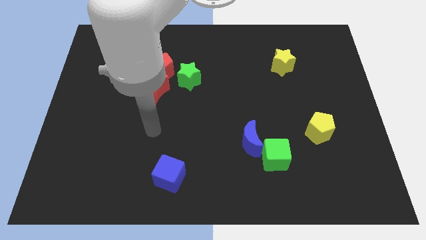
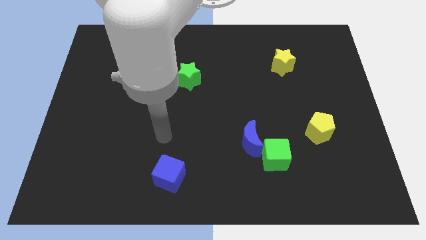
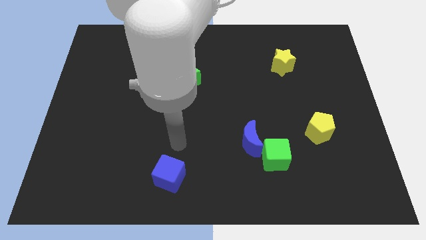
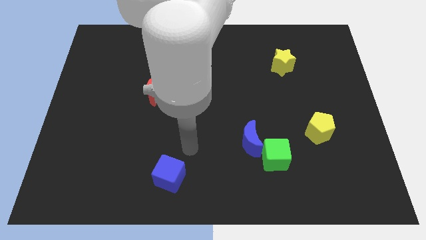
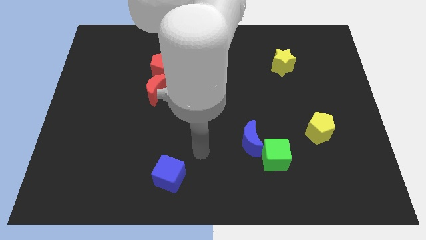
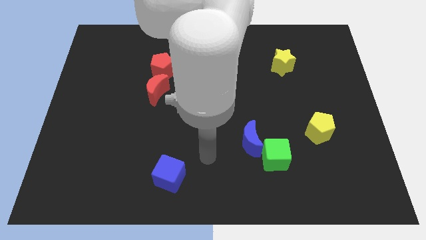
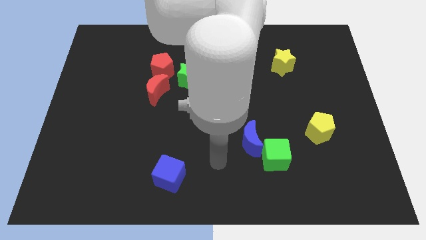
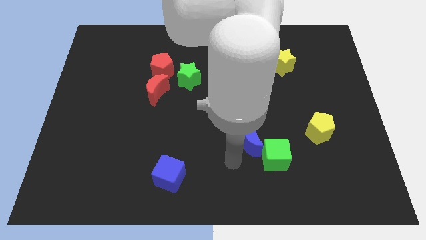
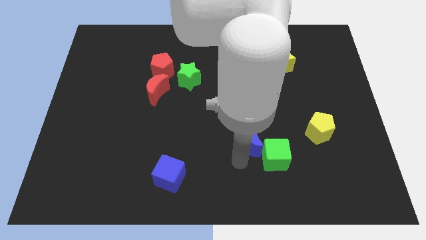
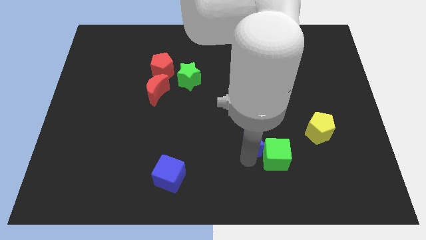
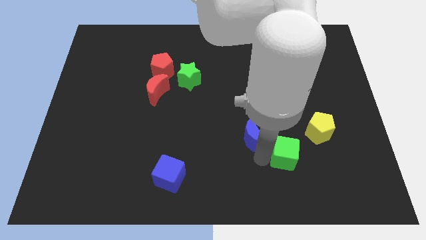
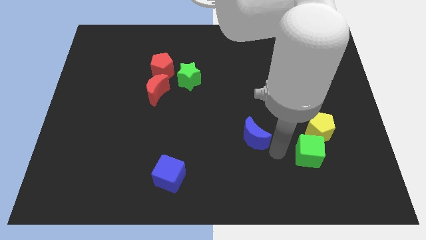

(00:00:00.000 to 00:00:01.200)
move the blue moon away from the green cube

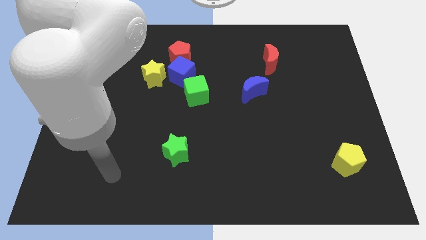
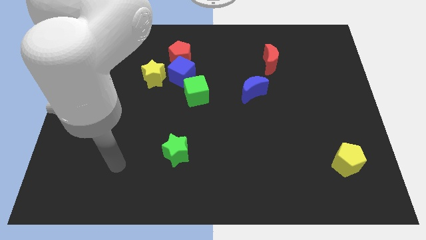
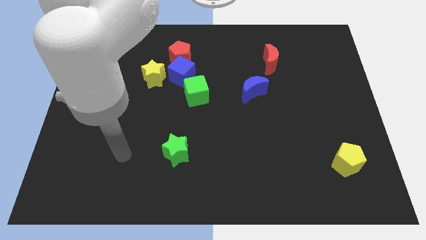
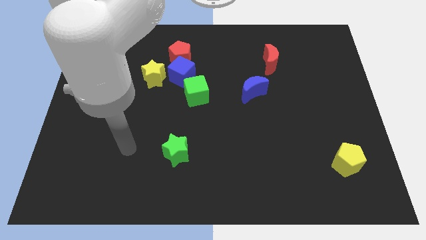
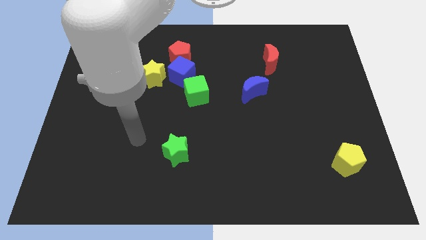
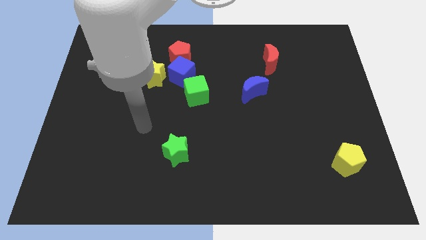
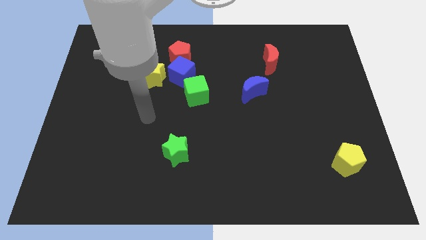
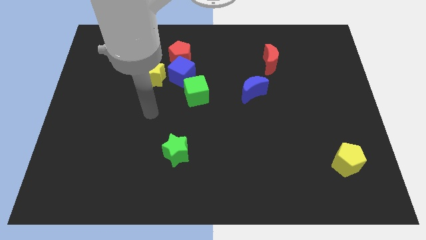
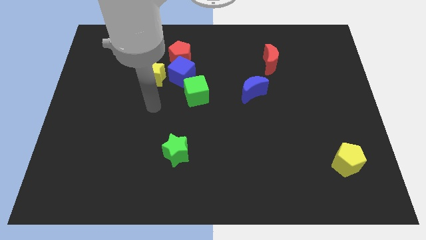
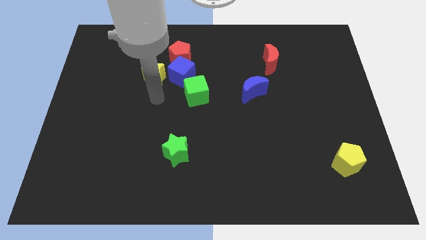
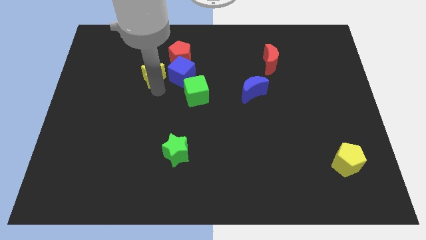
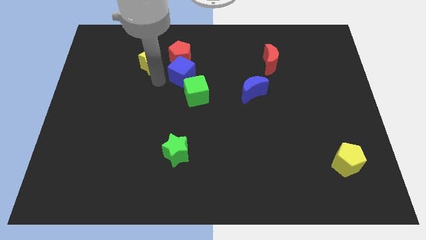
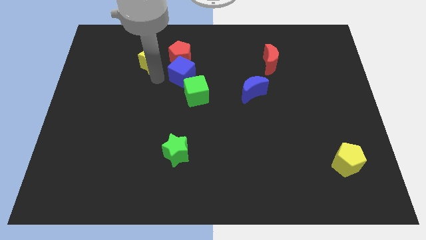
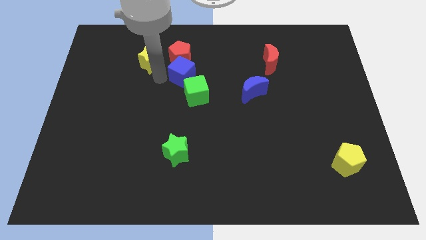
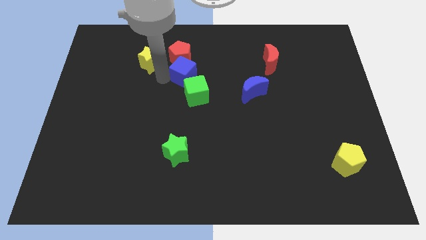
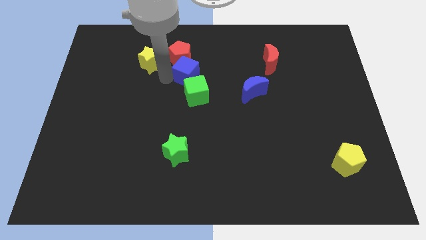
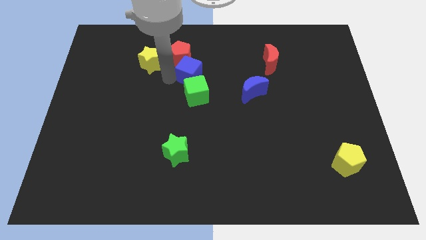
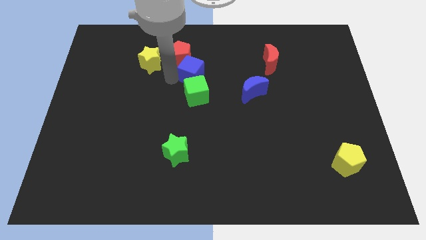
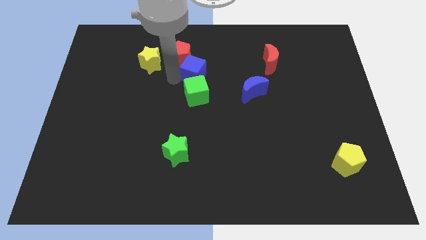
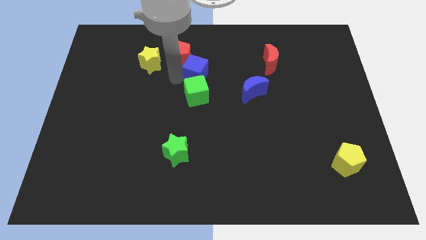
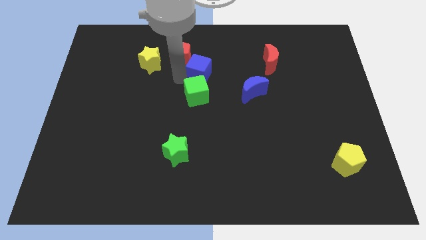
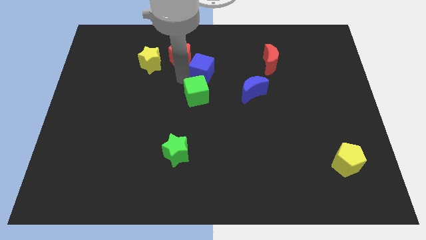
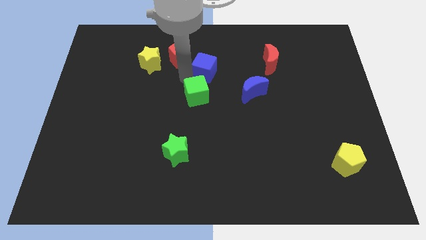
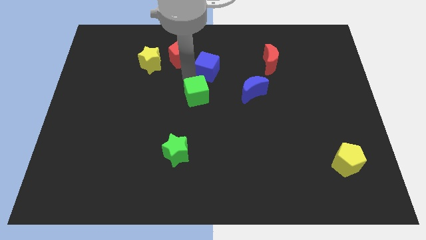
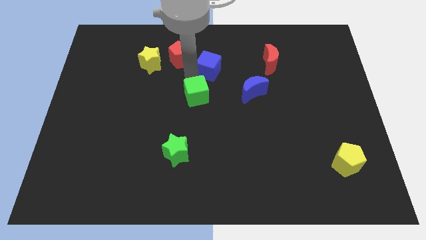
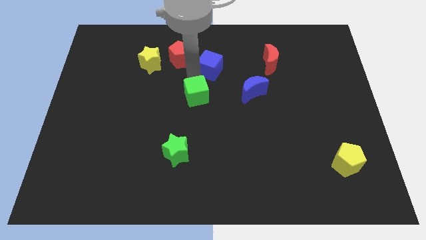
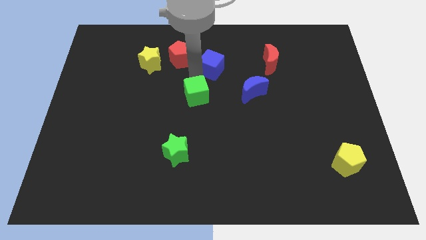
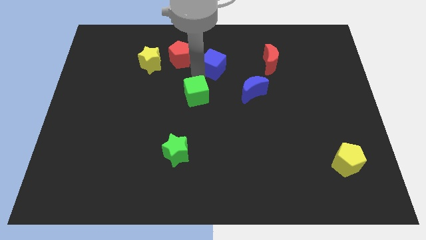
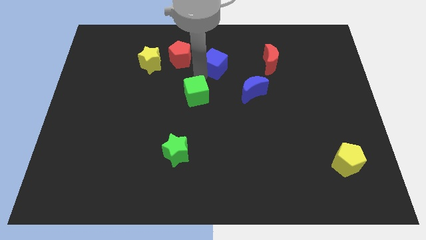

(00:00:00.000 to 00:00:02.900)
move the blue cube away from the red pentagon, yellow star, and green cube

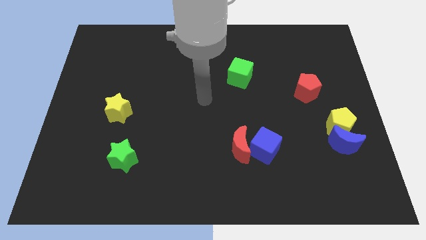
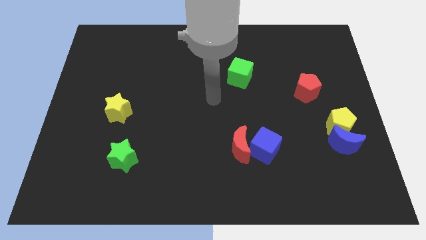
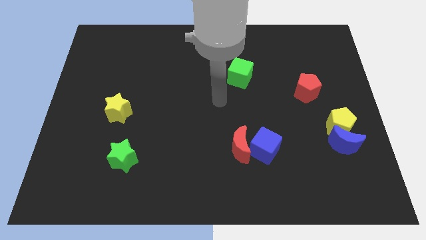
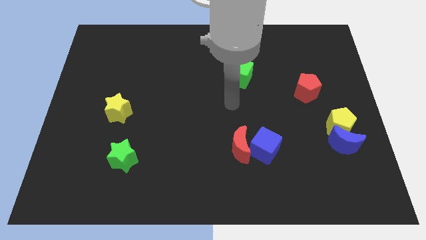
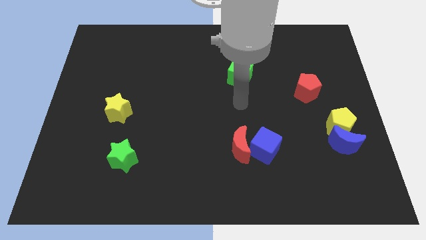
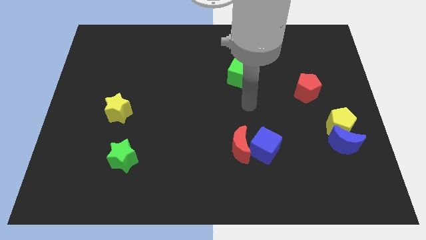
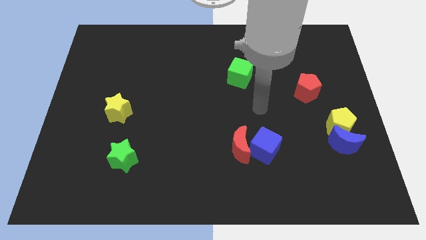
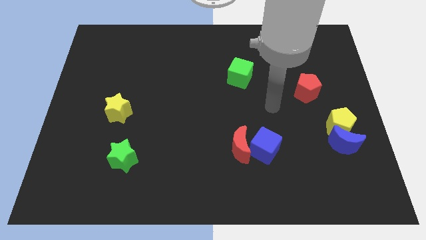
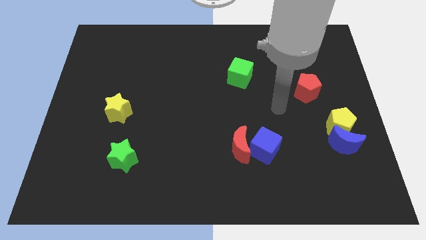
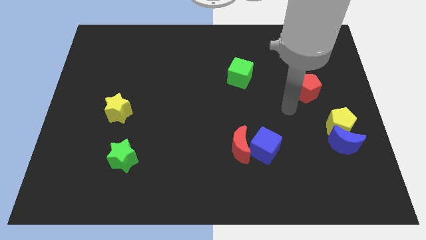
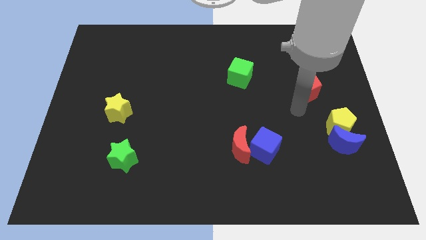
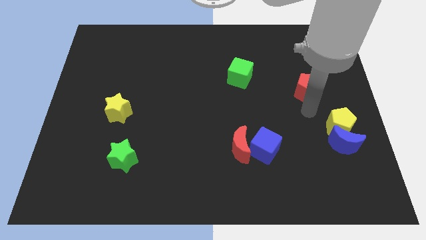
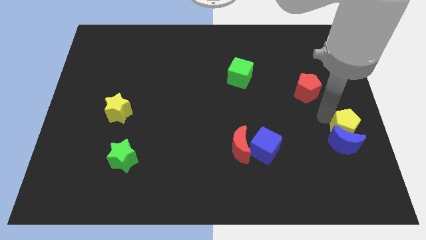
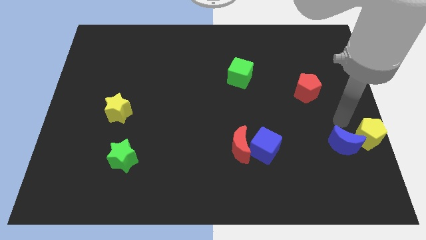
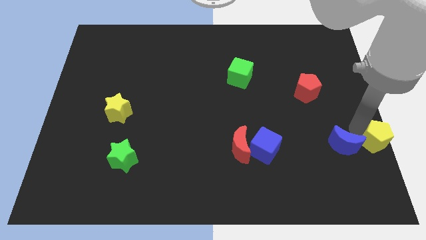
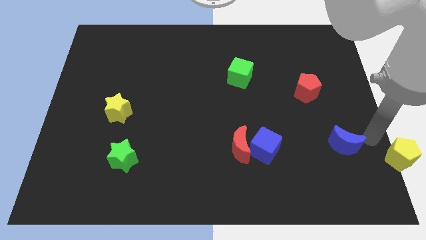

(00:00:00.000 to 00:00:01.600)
move the blue moon away from the yellow pentagon

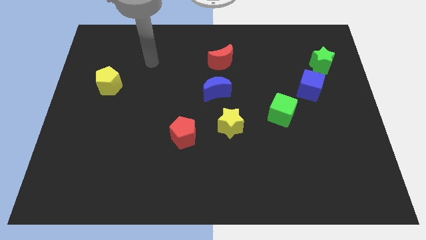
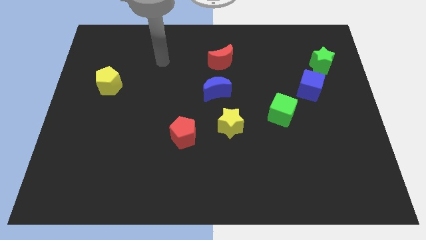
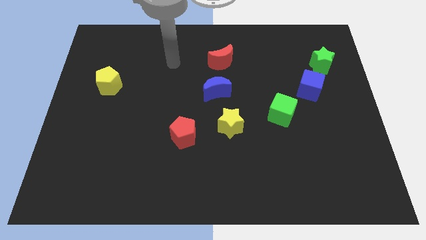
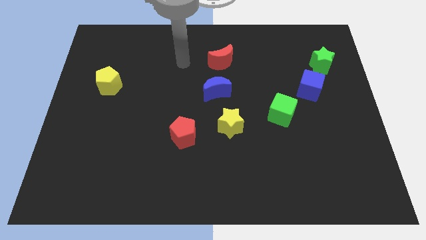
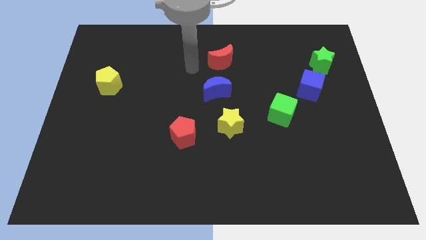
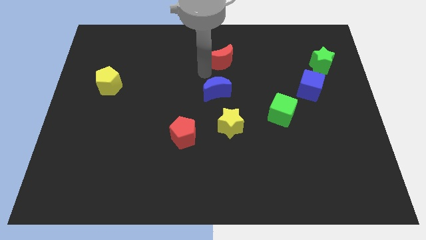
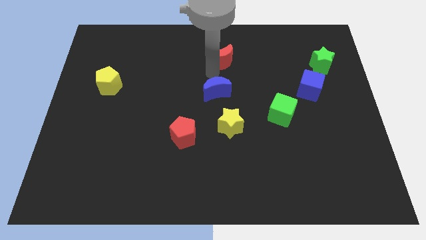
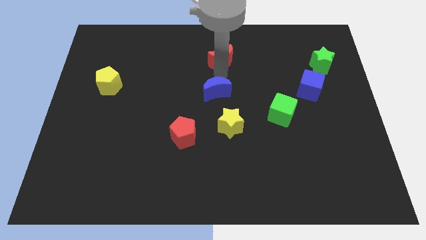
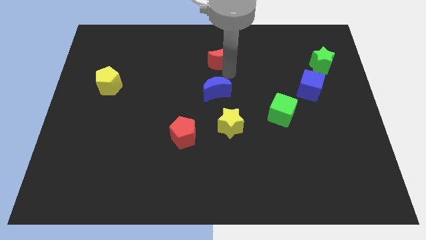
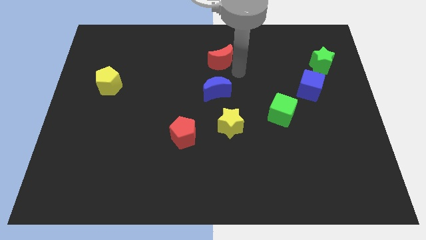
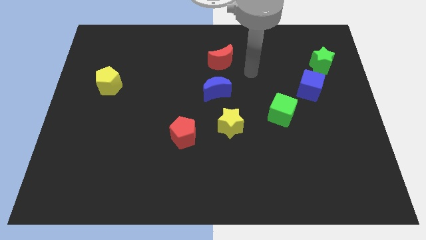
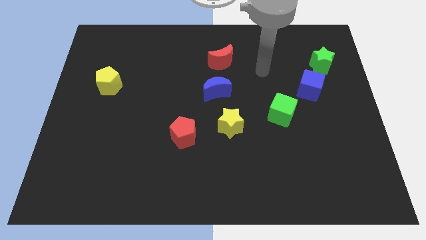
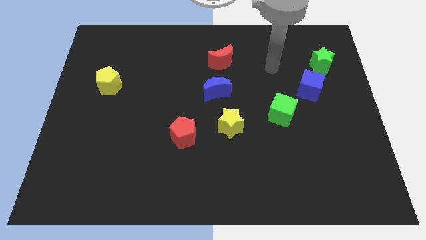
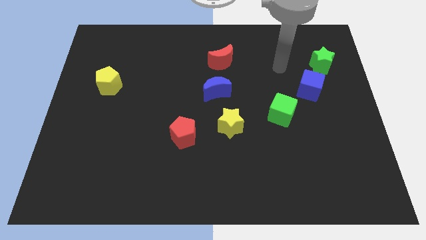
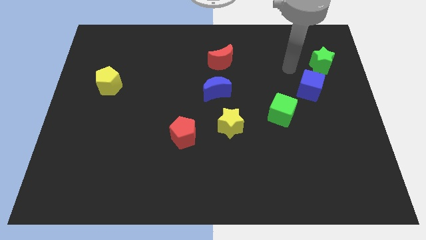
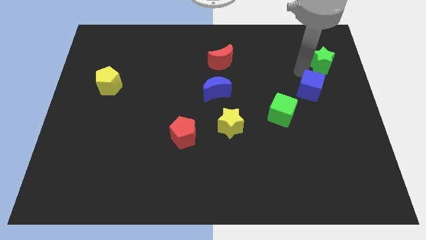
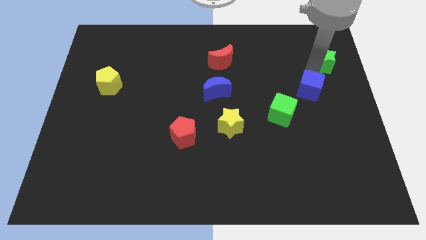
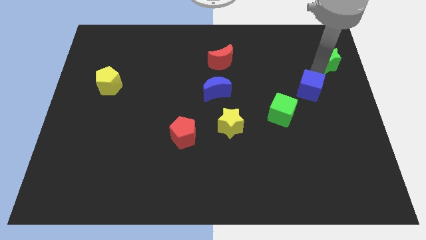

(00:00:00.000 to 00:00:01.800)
move the blue cube away from the green star

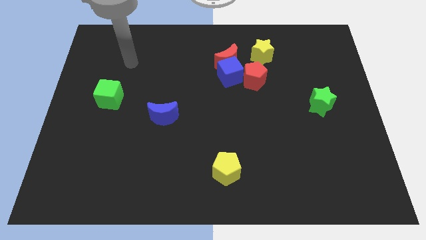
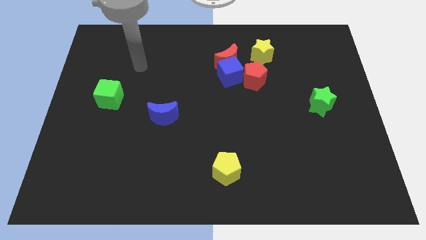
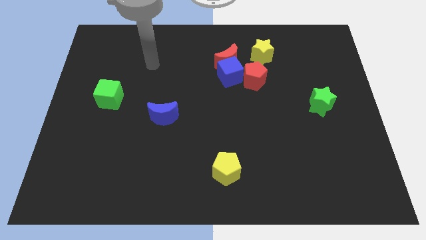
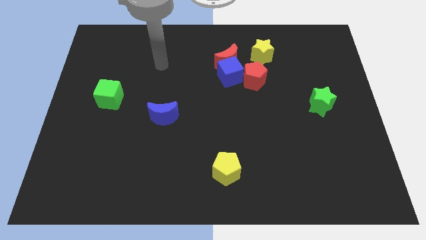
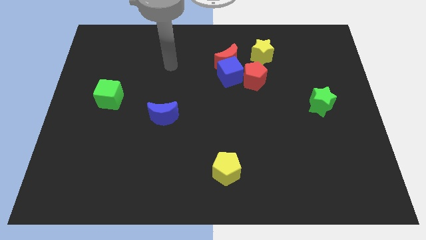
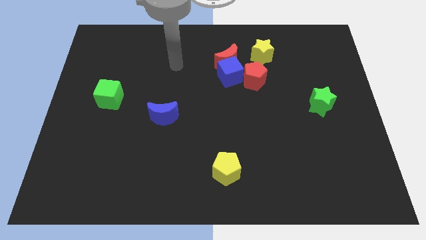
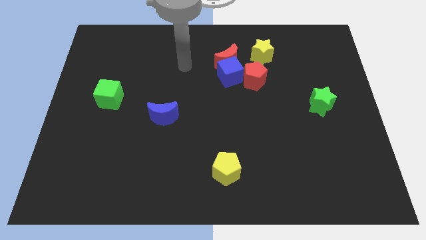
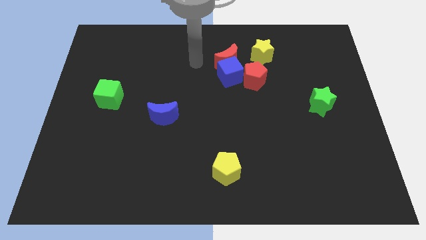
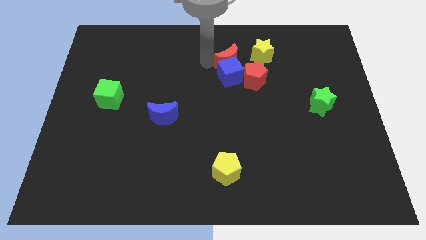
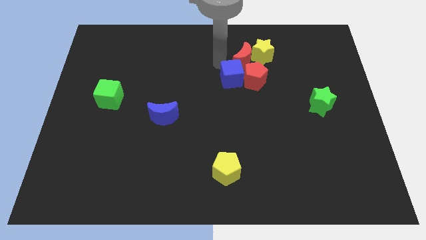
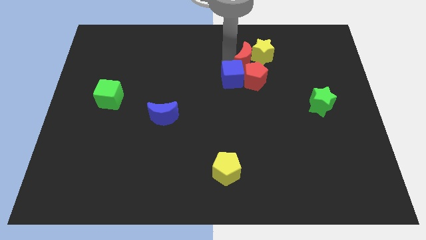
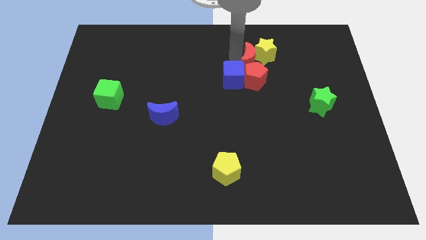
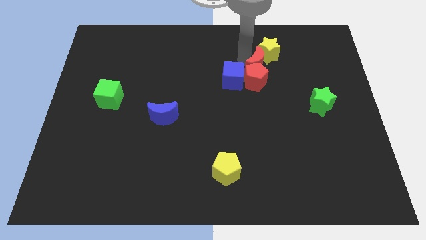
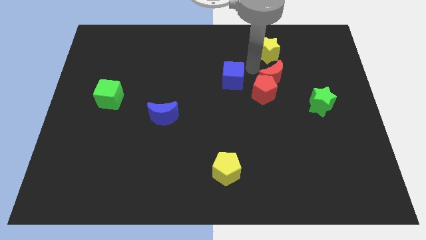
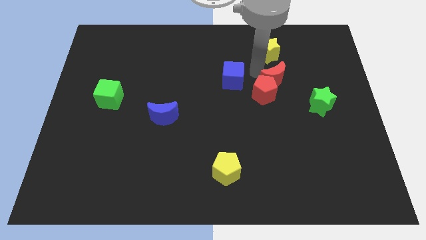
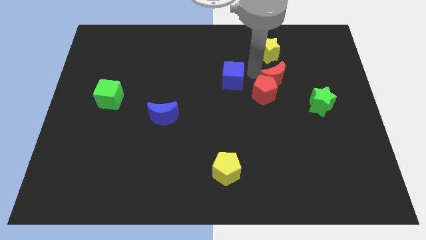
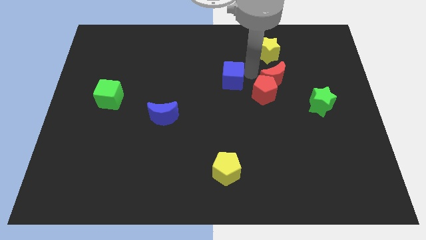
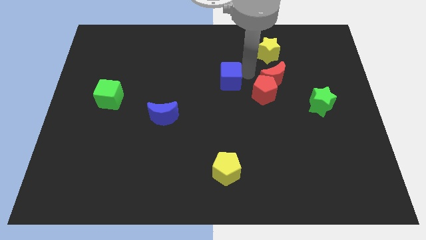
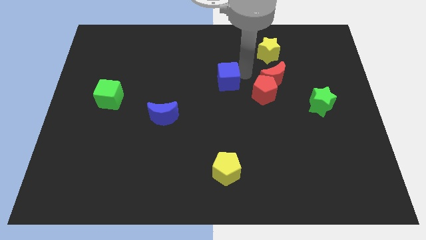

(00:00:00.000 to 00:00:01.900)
move the blue cube away from the red moon and red pentagon
